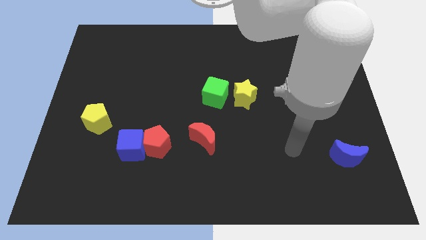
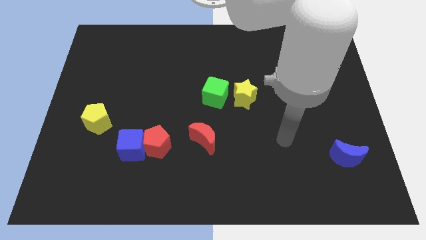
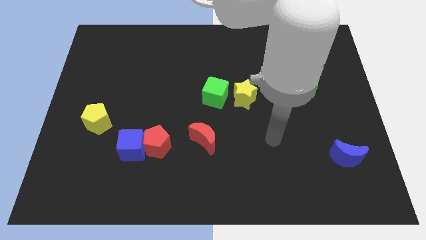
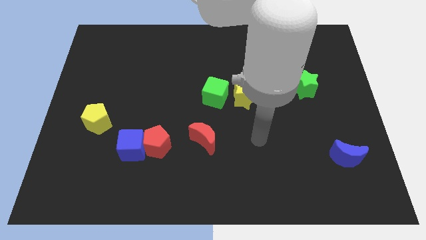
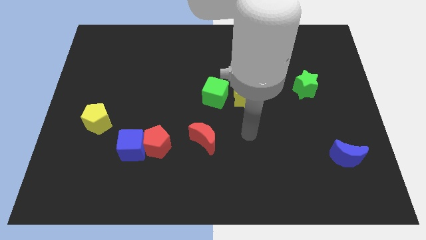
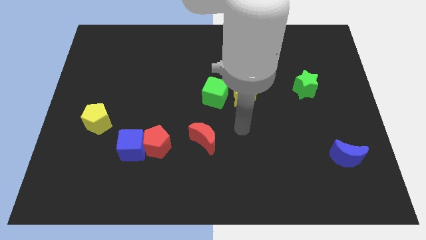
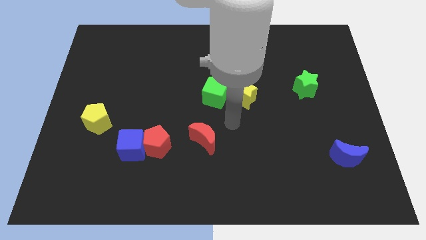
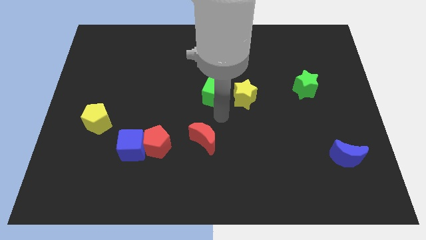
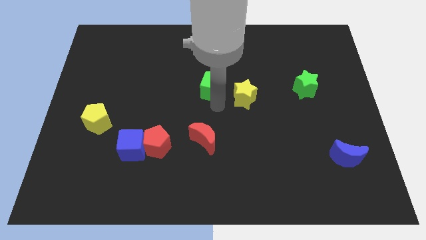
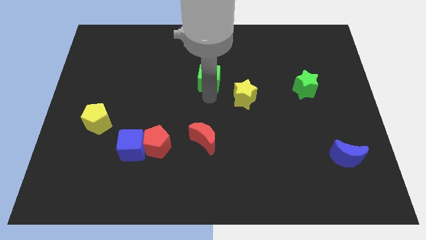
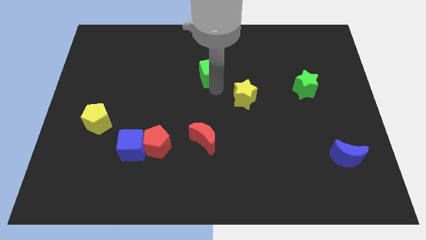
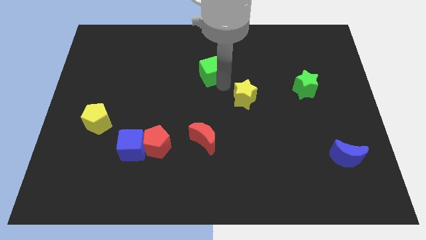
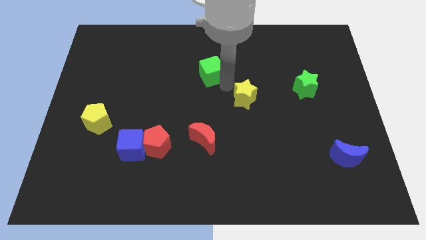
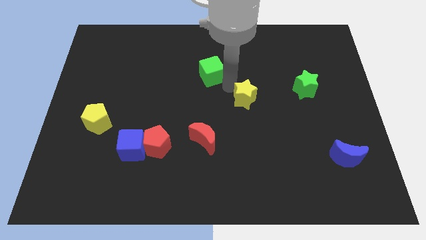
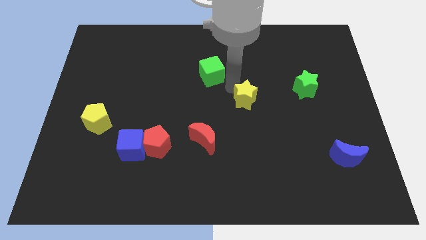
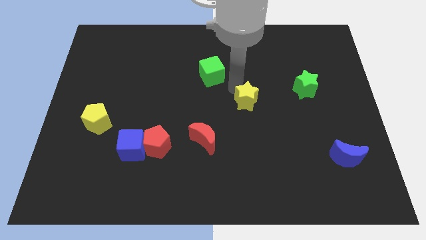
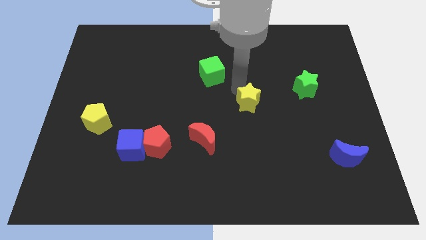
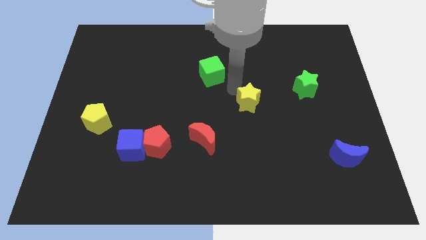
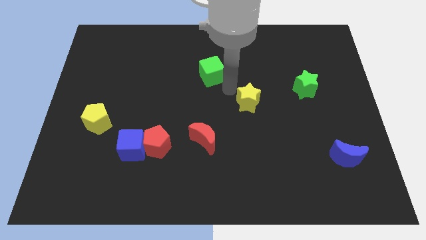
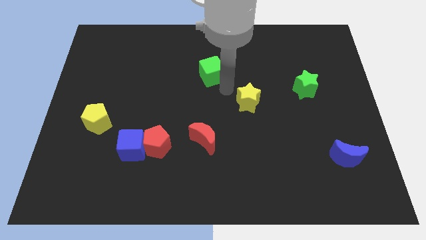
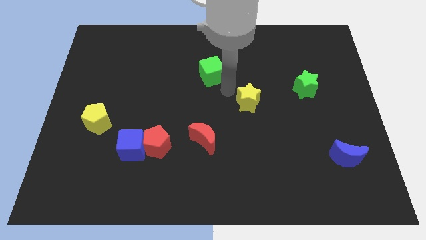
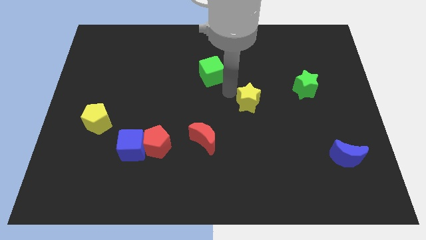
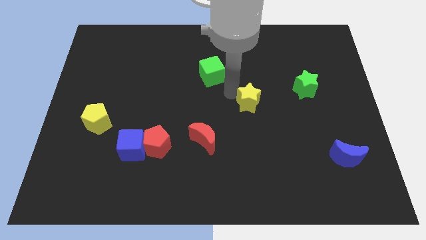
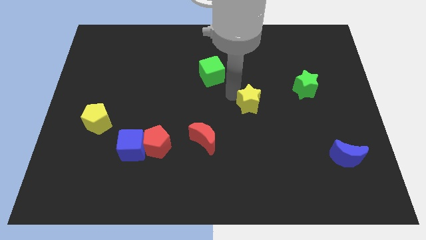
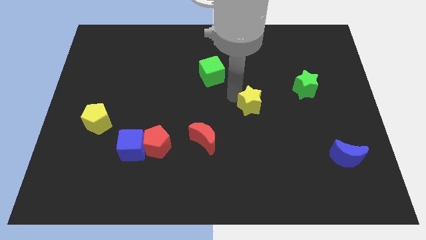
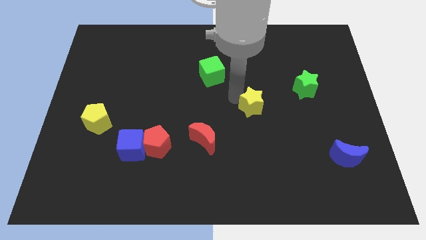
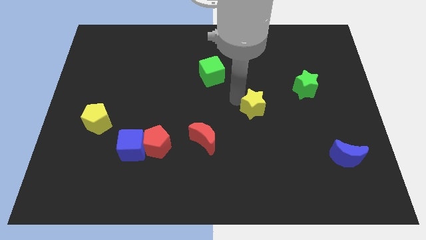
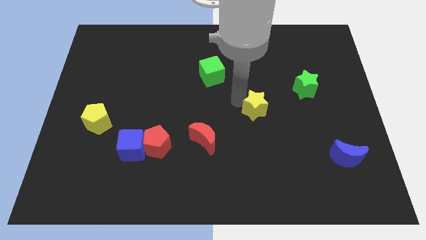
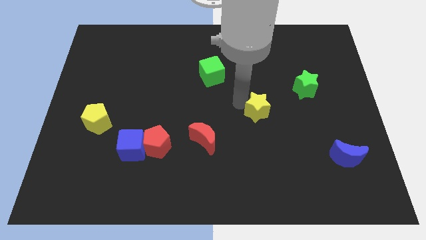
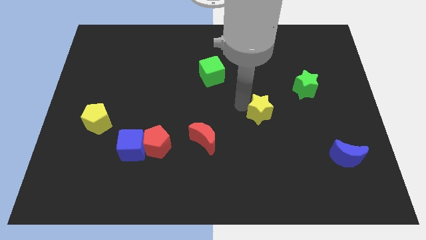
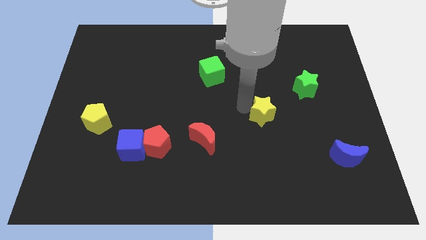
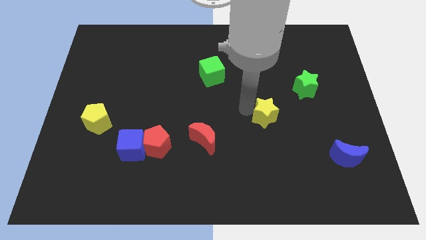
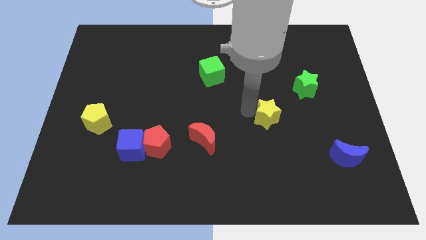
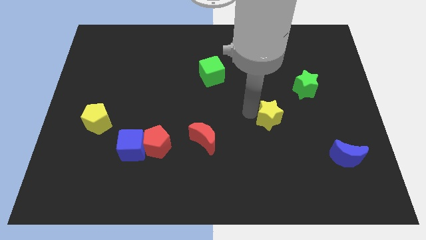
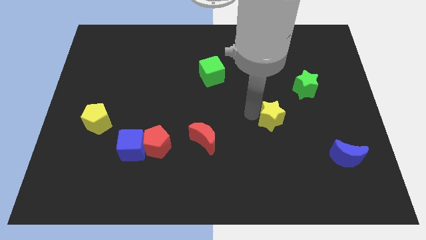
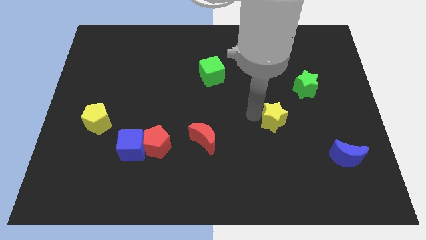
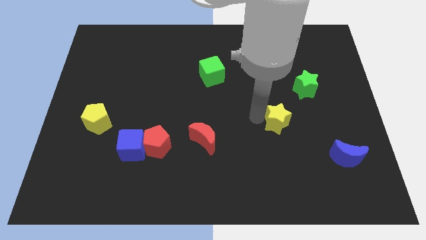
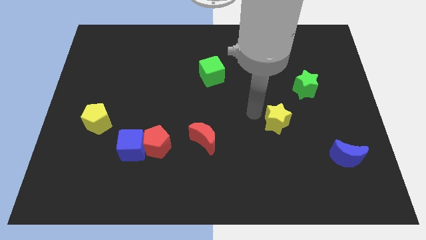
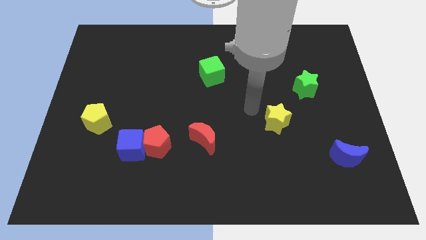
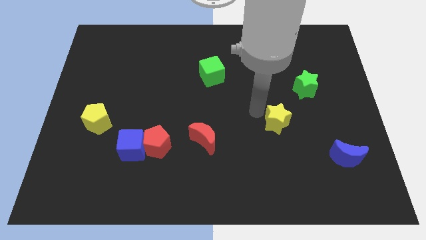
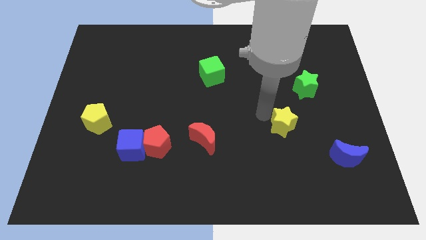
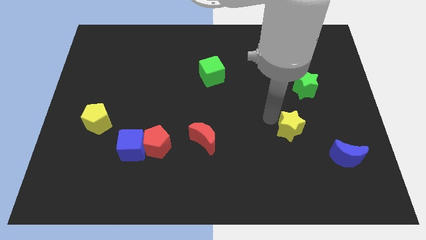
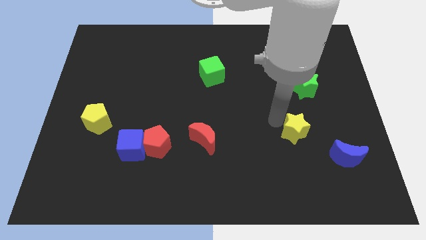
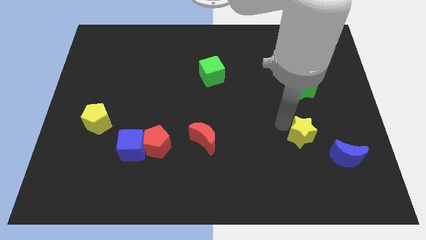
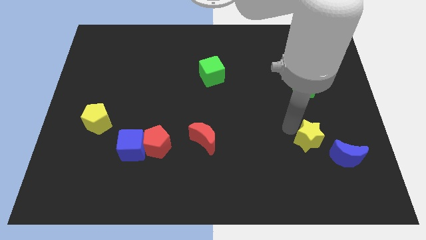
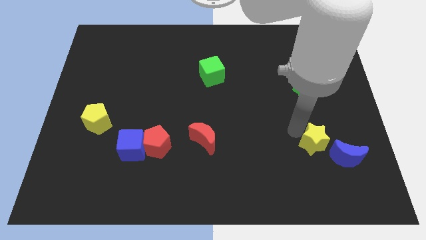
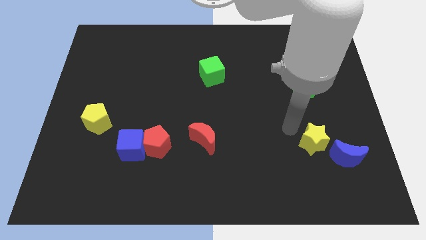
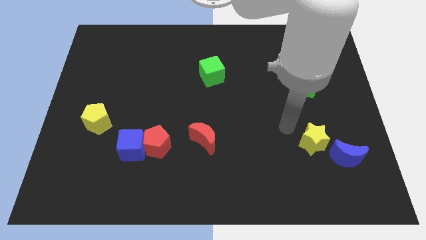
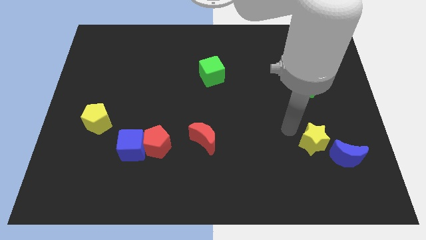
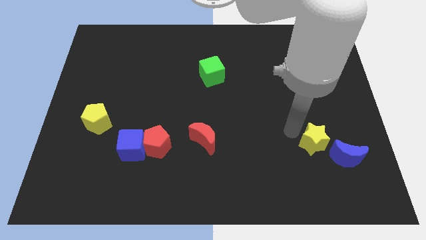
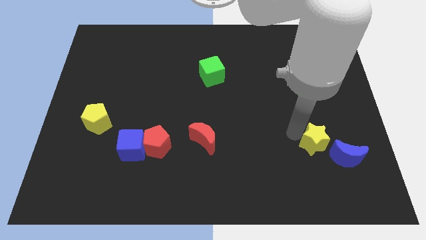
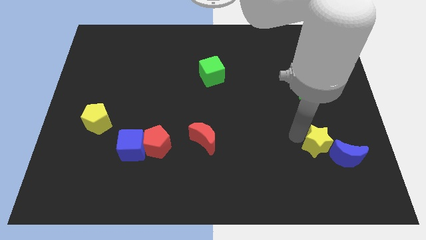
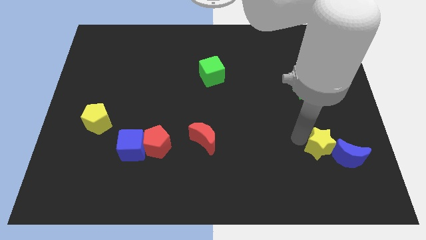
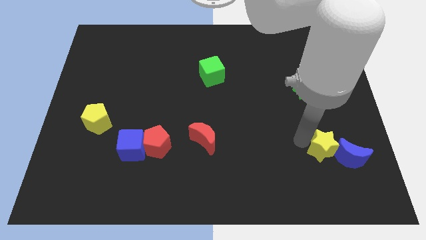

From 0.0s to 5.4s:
move the yellow star next to the blue moon

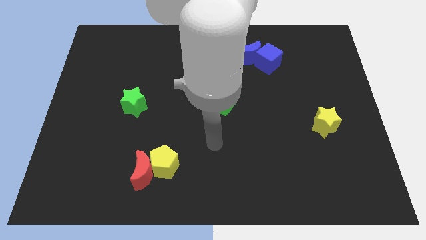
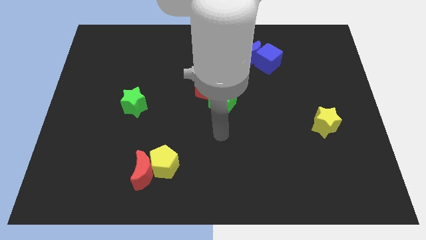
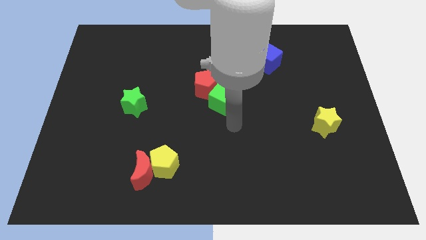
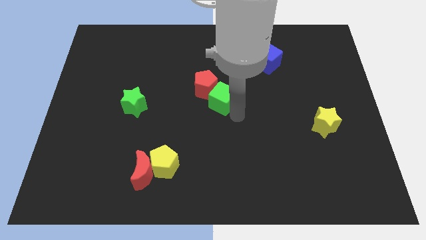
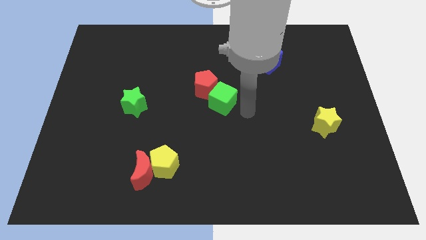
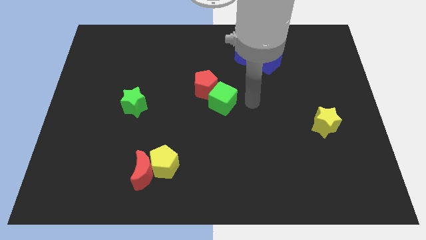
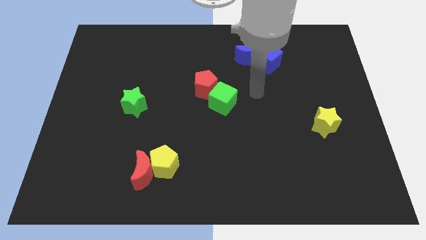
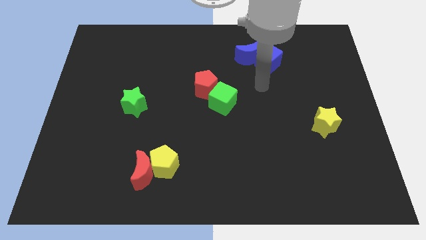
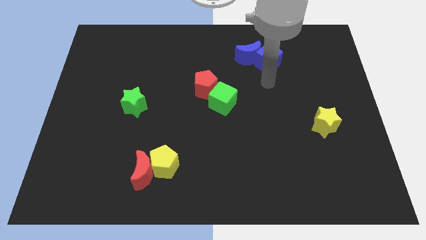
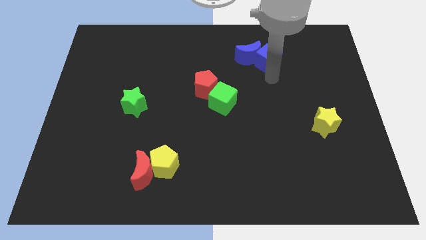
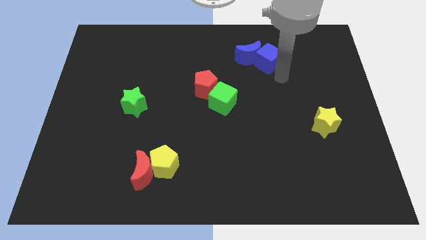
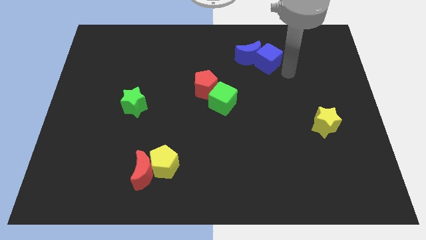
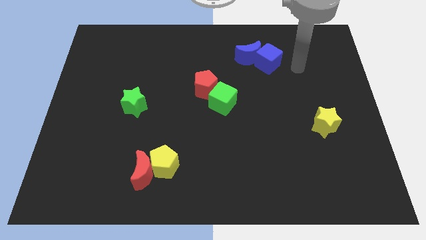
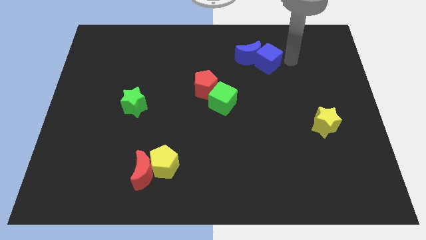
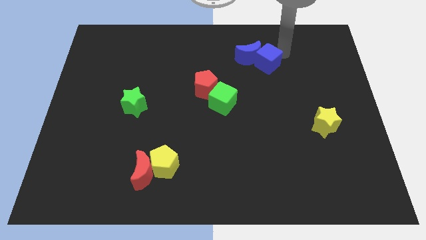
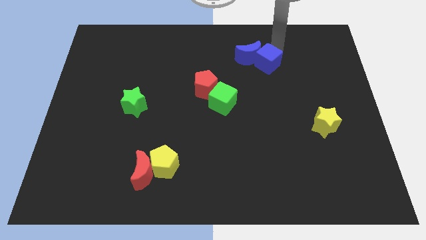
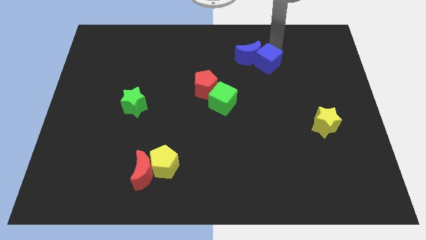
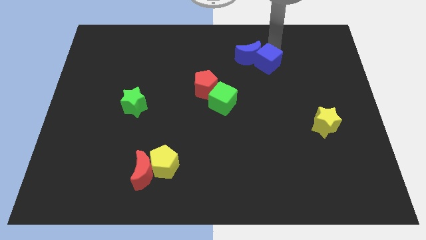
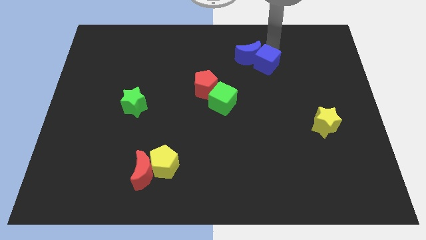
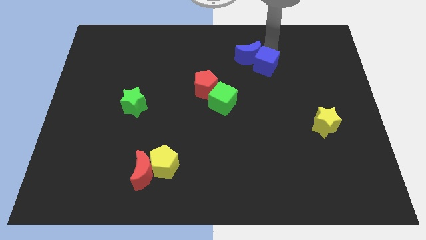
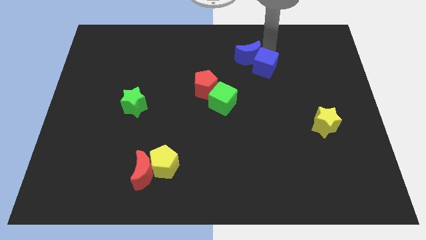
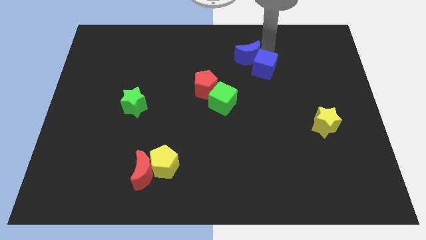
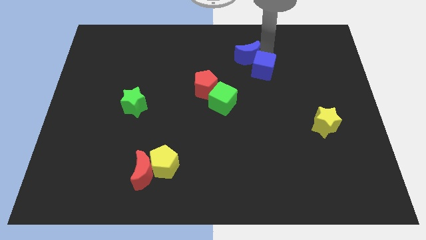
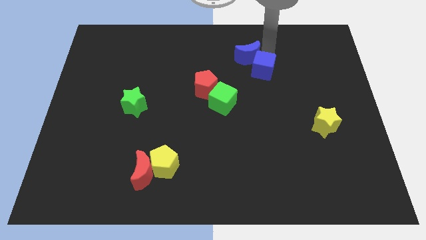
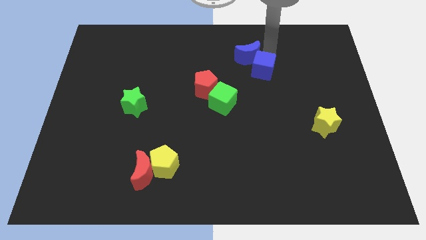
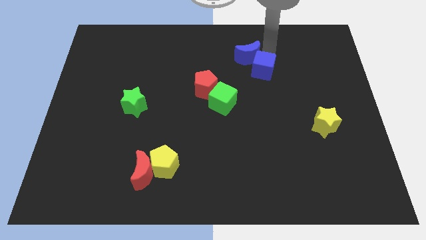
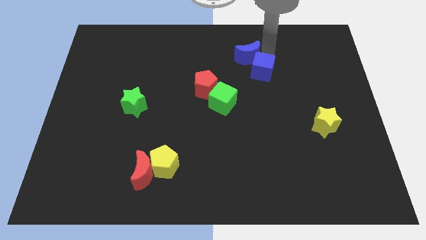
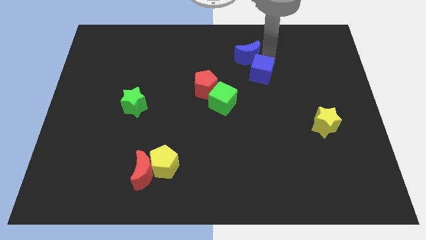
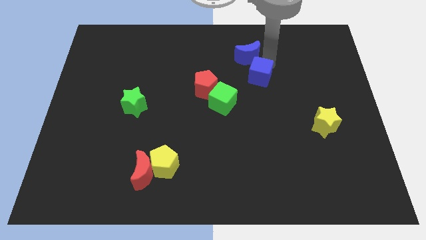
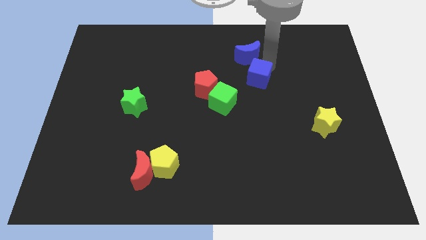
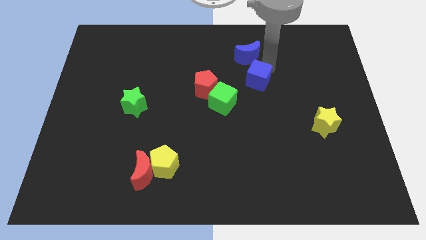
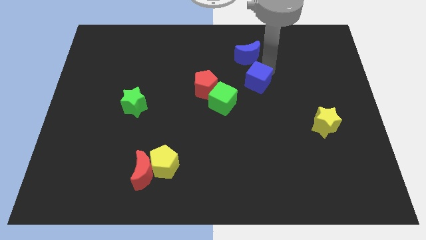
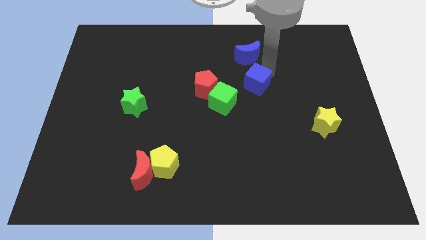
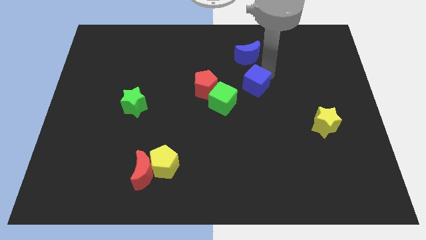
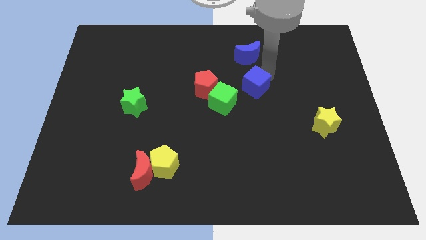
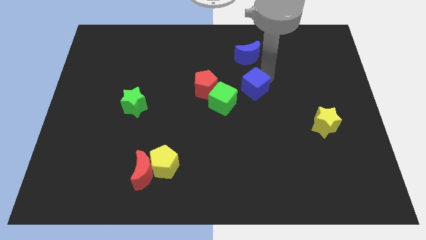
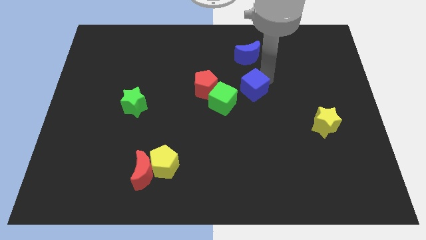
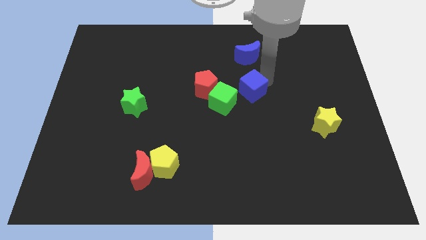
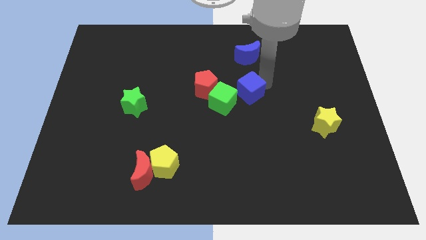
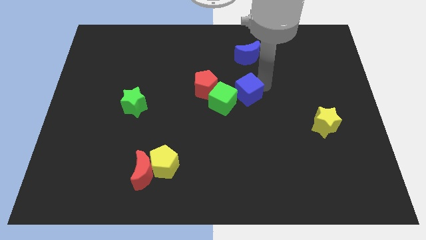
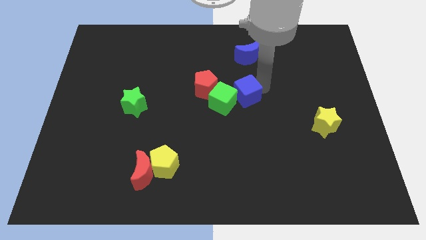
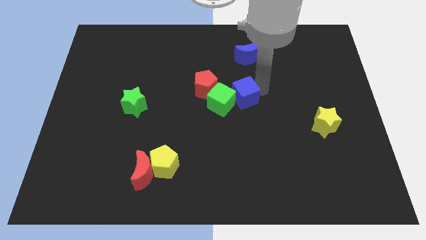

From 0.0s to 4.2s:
push the blue cube to the green cube
